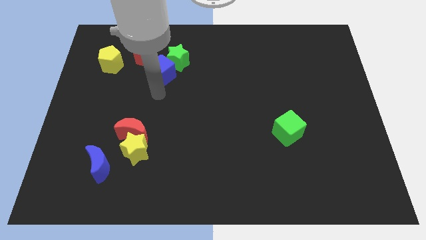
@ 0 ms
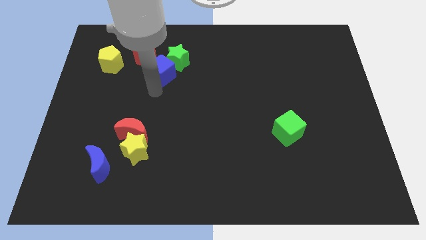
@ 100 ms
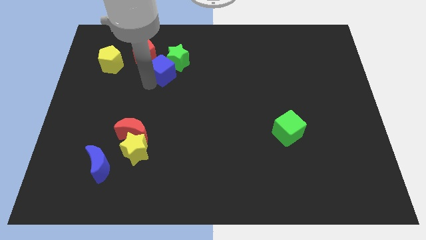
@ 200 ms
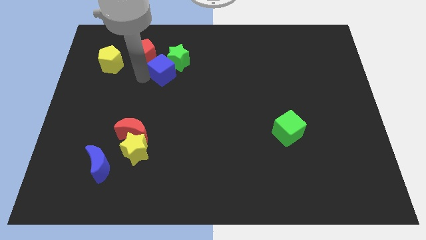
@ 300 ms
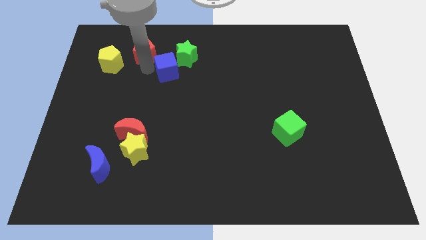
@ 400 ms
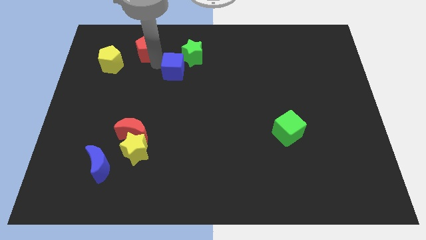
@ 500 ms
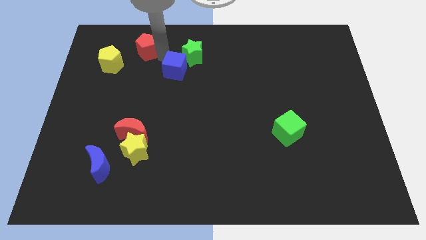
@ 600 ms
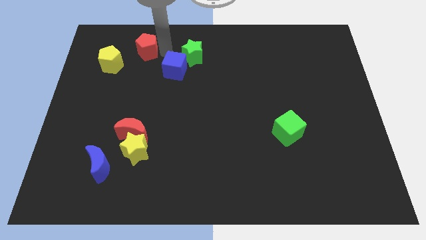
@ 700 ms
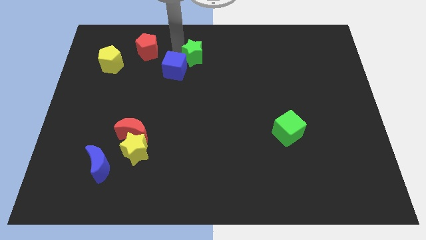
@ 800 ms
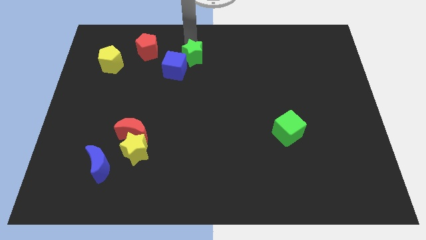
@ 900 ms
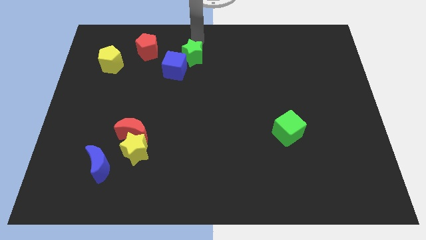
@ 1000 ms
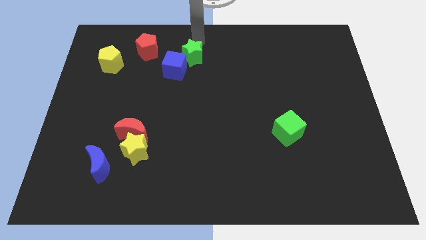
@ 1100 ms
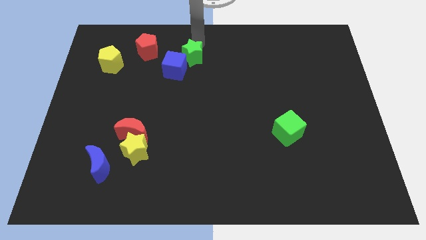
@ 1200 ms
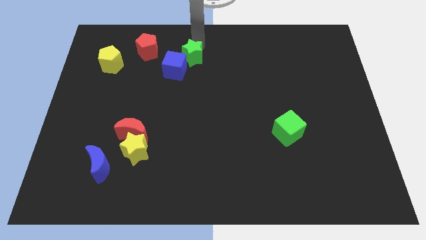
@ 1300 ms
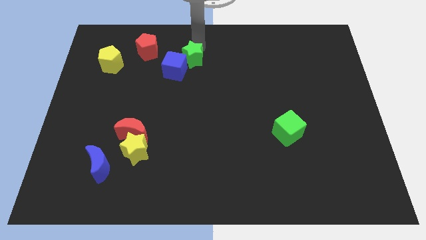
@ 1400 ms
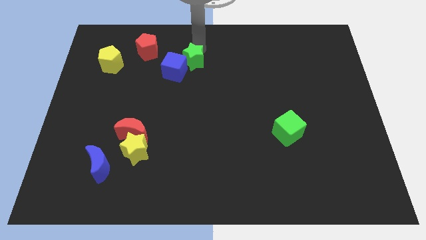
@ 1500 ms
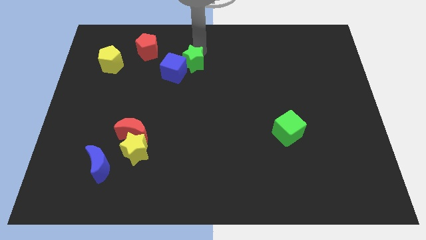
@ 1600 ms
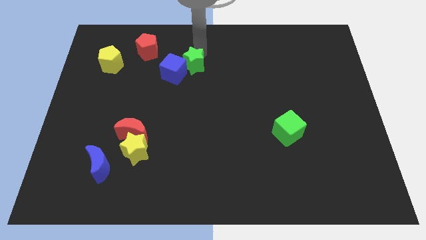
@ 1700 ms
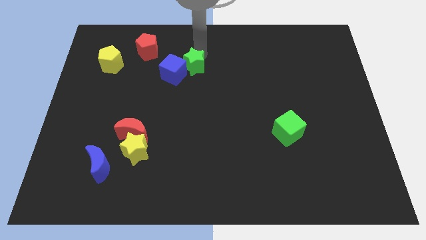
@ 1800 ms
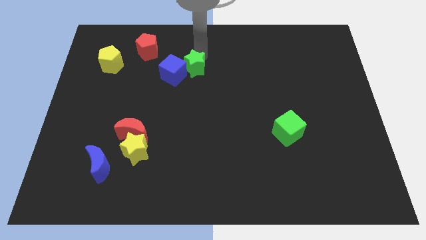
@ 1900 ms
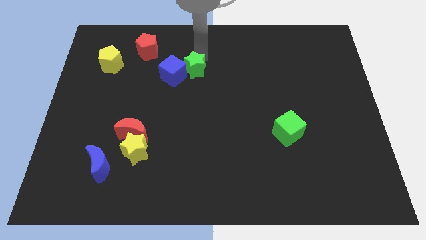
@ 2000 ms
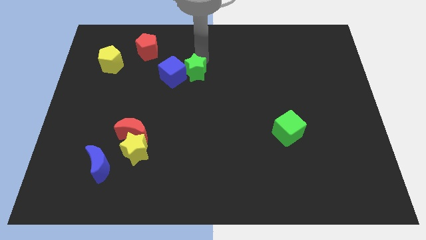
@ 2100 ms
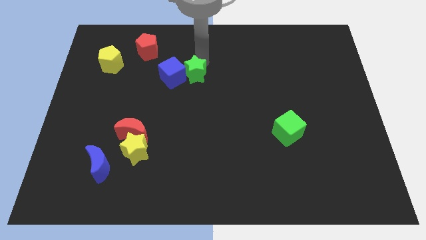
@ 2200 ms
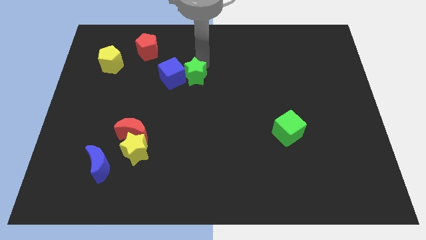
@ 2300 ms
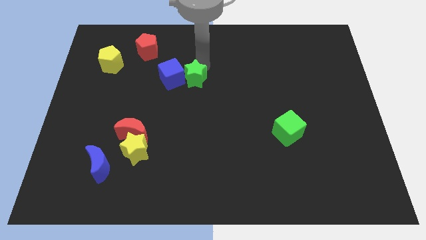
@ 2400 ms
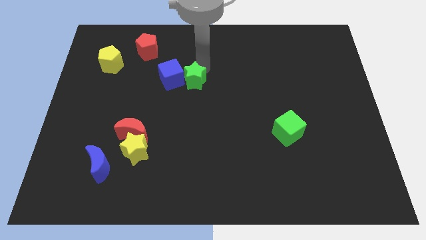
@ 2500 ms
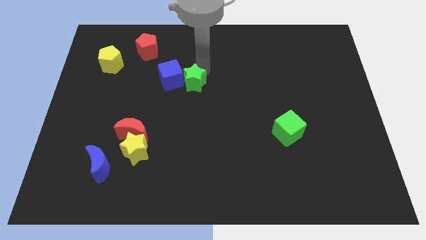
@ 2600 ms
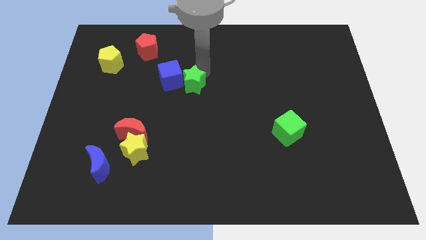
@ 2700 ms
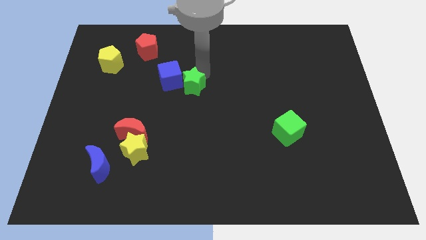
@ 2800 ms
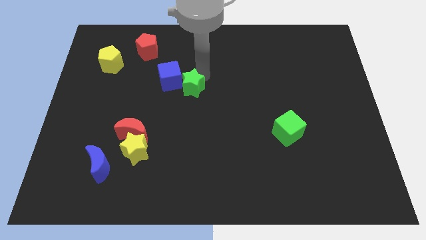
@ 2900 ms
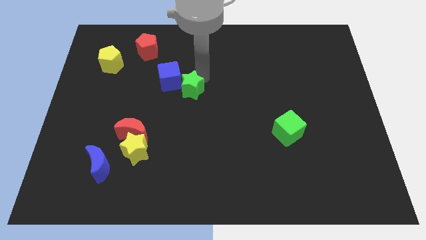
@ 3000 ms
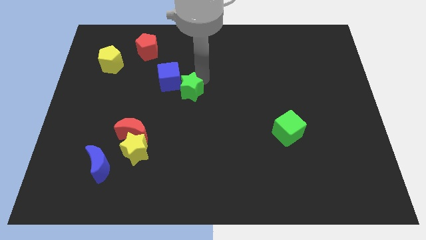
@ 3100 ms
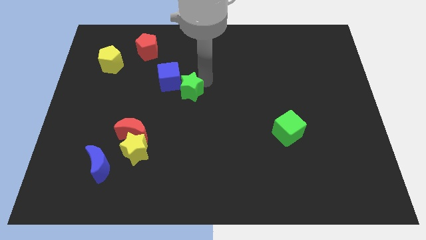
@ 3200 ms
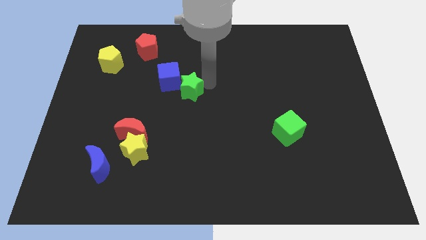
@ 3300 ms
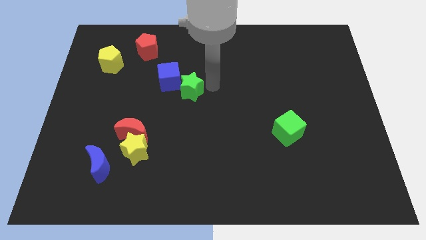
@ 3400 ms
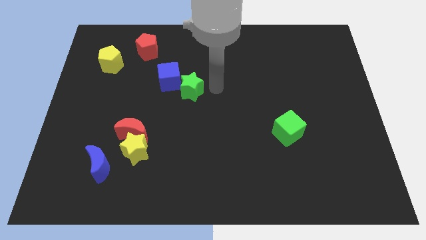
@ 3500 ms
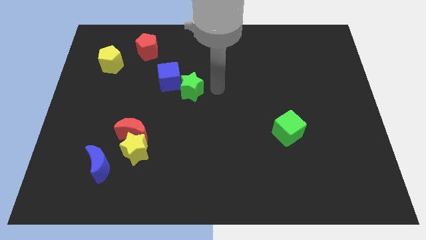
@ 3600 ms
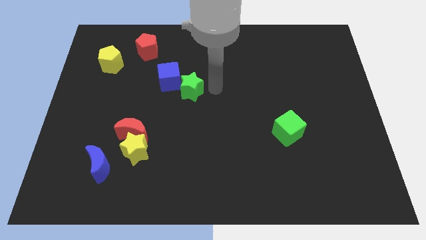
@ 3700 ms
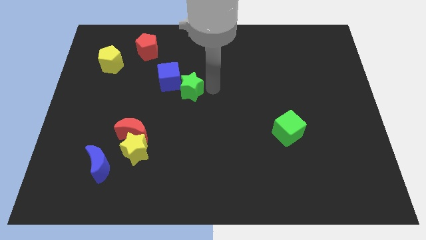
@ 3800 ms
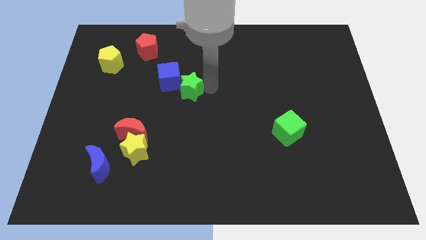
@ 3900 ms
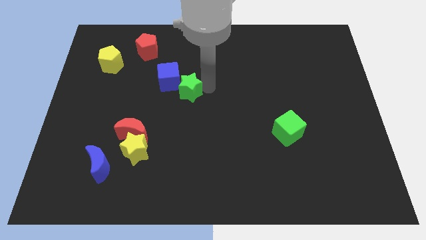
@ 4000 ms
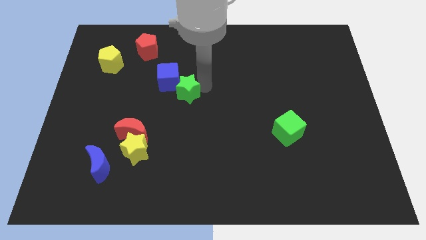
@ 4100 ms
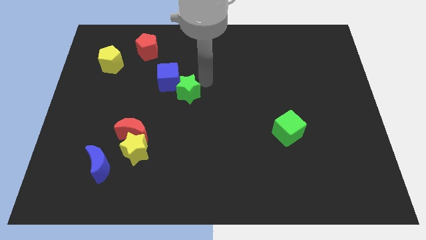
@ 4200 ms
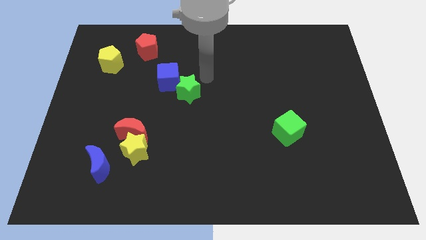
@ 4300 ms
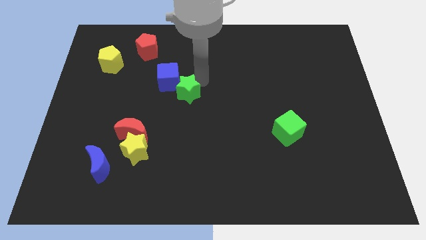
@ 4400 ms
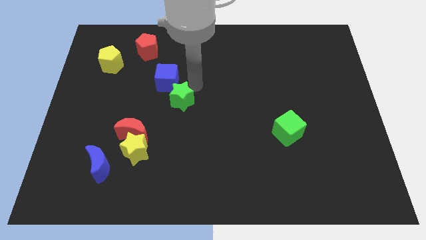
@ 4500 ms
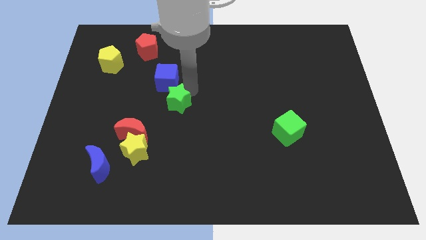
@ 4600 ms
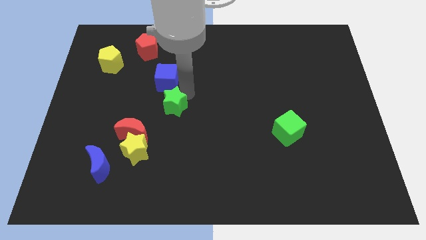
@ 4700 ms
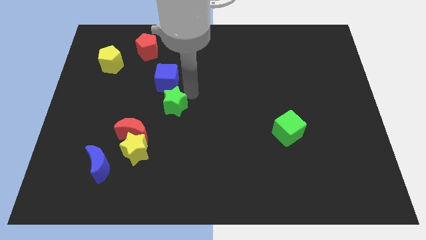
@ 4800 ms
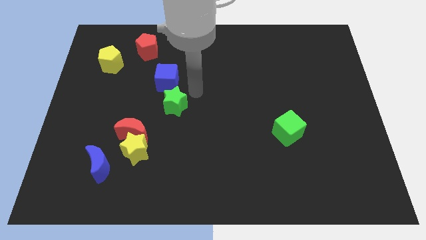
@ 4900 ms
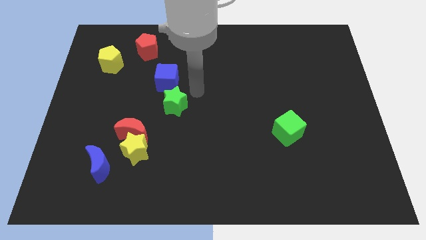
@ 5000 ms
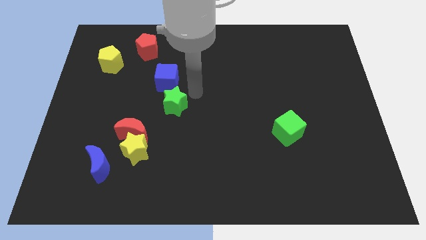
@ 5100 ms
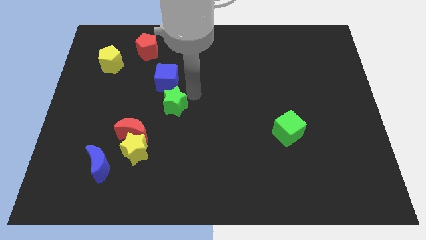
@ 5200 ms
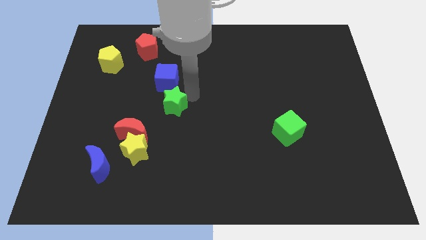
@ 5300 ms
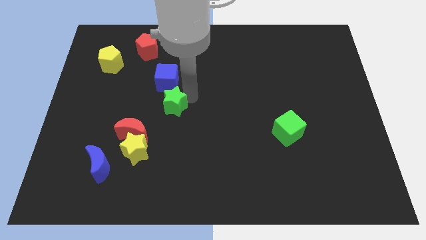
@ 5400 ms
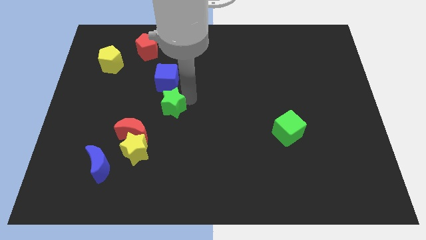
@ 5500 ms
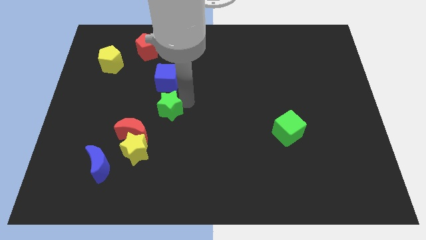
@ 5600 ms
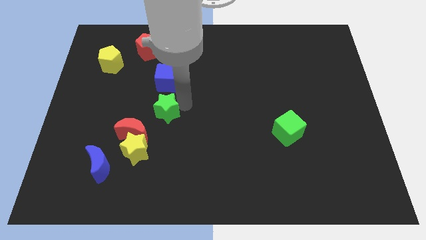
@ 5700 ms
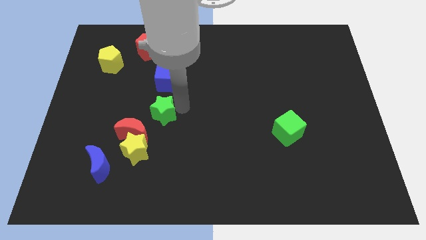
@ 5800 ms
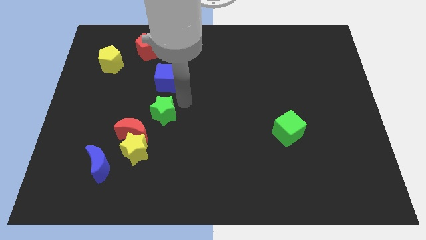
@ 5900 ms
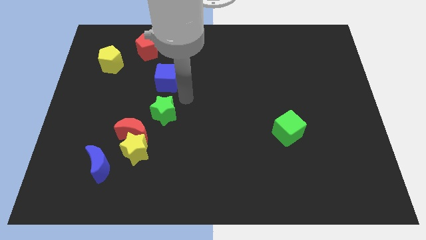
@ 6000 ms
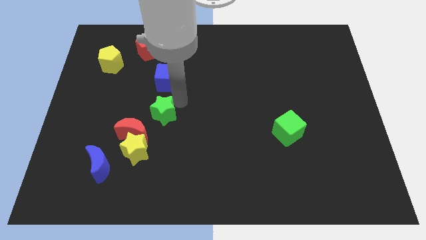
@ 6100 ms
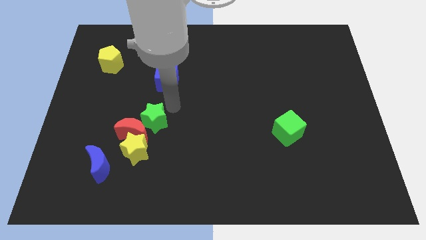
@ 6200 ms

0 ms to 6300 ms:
put the green star close to the red moon
